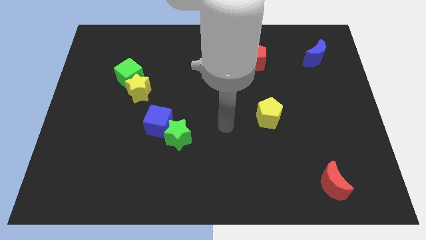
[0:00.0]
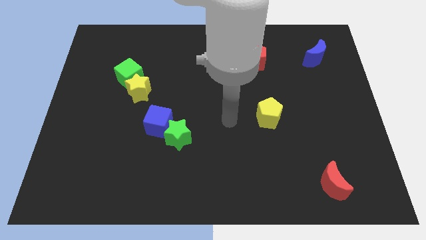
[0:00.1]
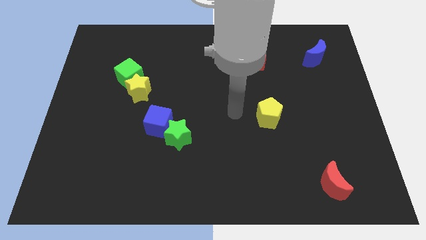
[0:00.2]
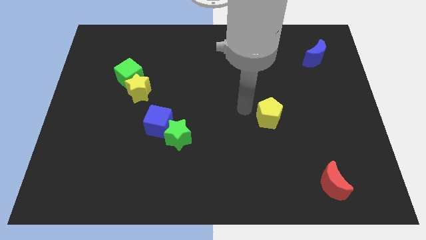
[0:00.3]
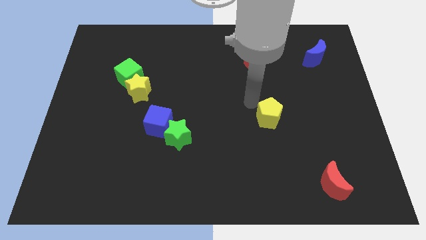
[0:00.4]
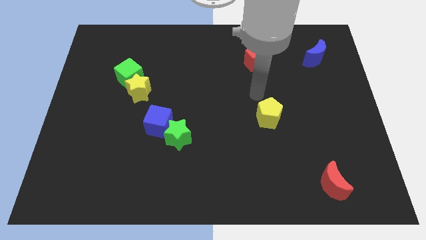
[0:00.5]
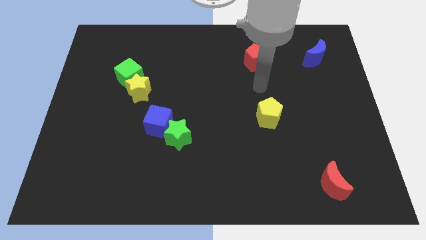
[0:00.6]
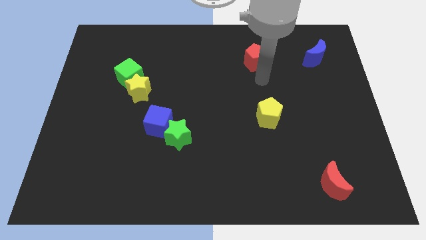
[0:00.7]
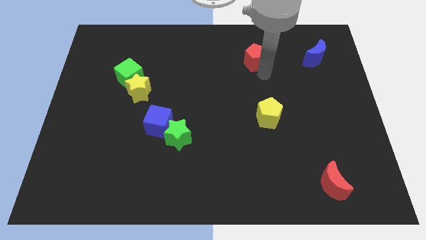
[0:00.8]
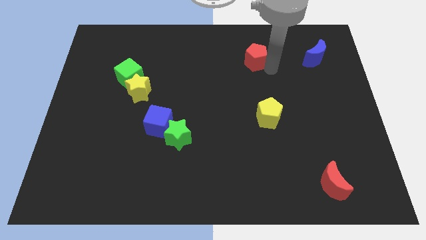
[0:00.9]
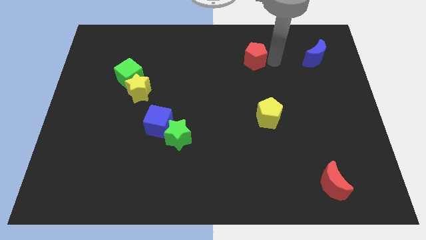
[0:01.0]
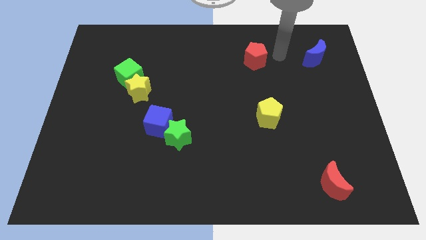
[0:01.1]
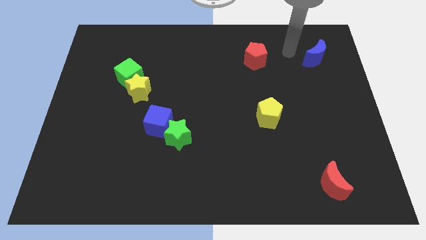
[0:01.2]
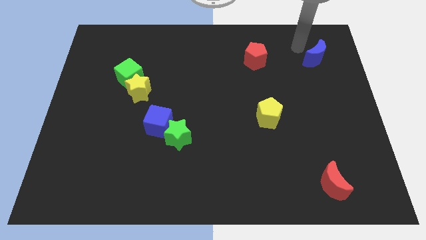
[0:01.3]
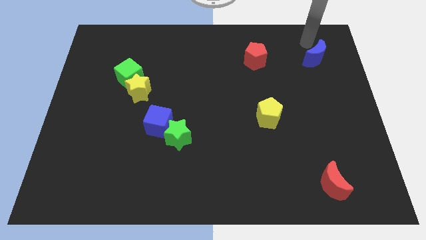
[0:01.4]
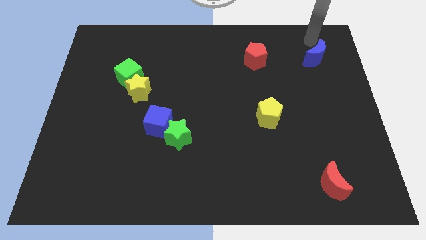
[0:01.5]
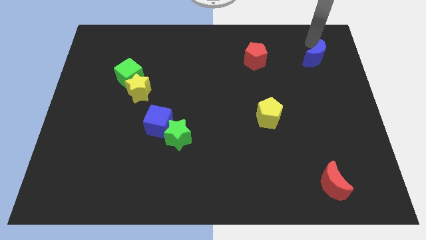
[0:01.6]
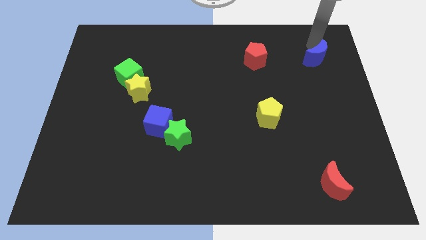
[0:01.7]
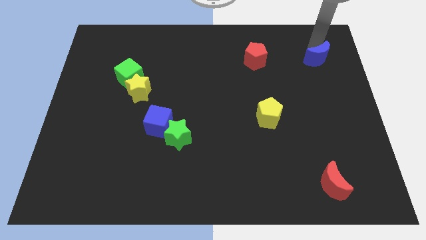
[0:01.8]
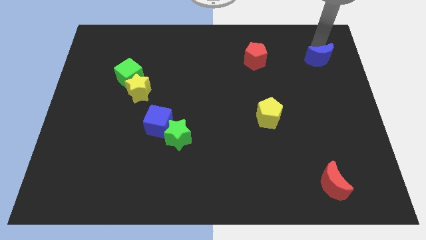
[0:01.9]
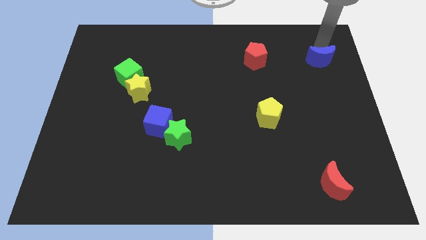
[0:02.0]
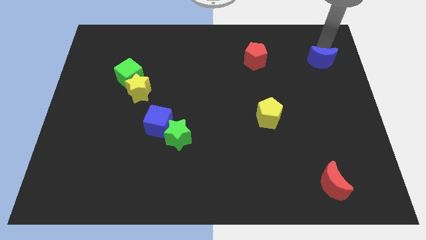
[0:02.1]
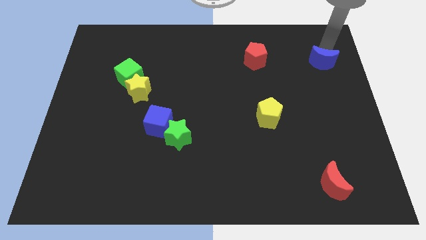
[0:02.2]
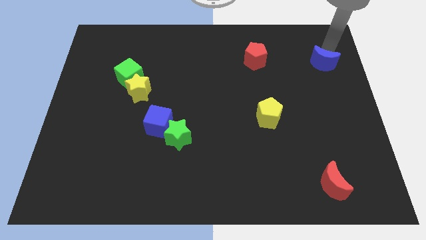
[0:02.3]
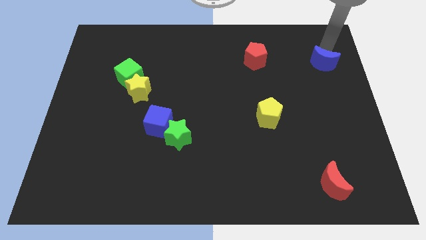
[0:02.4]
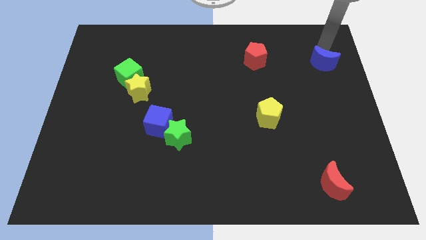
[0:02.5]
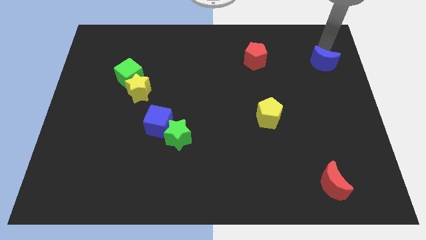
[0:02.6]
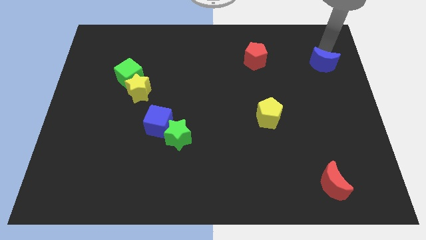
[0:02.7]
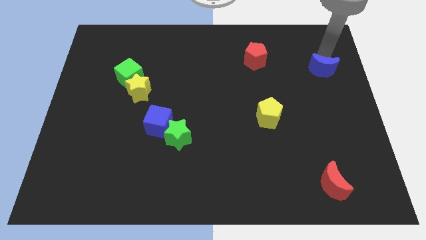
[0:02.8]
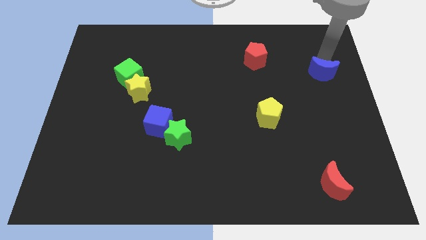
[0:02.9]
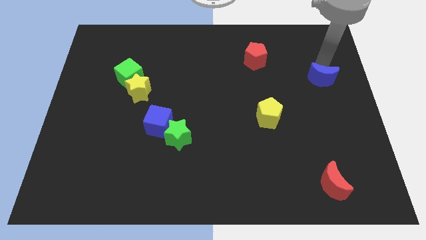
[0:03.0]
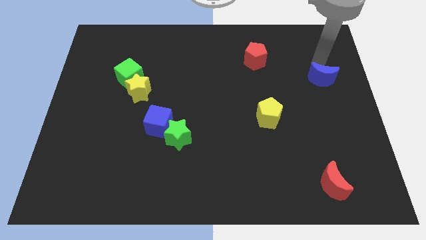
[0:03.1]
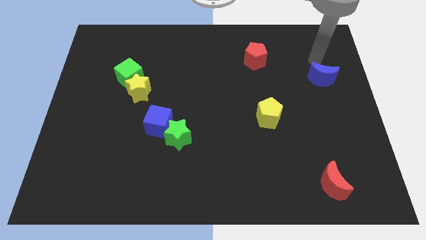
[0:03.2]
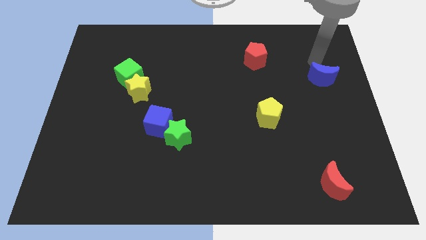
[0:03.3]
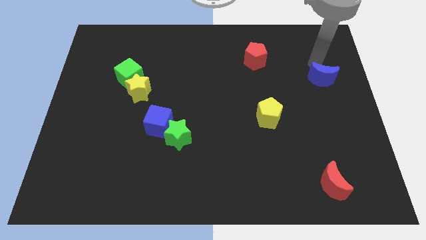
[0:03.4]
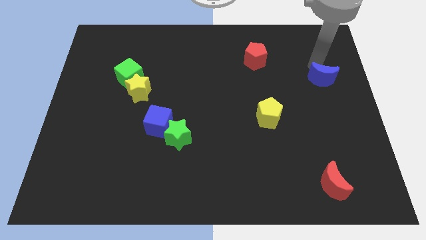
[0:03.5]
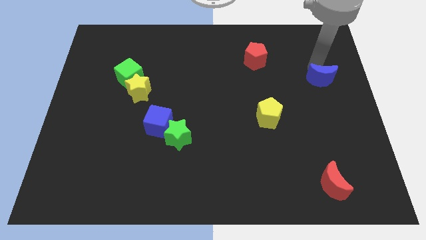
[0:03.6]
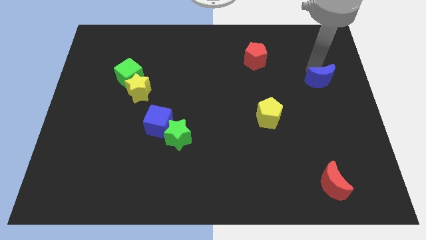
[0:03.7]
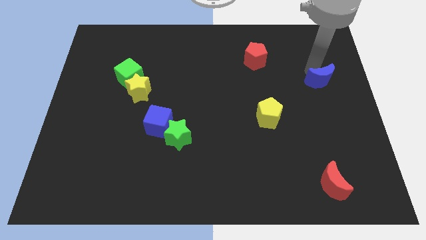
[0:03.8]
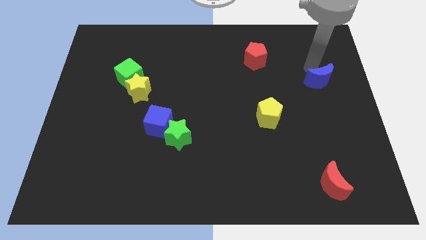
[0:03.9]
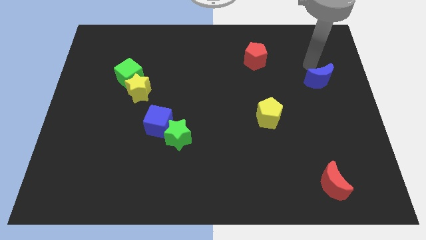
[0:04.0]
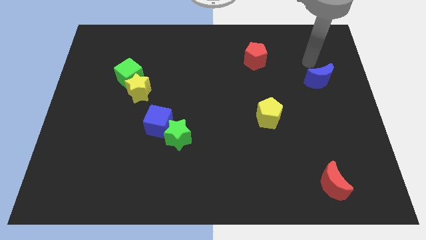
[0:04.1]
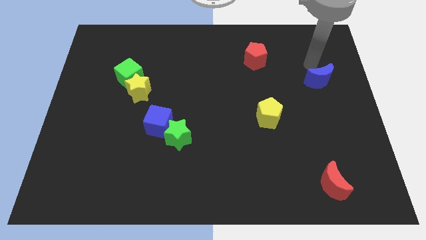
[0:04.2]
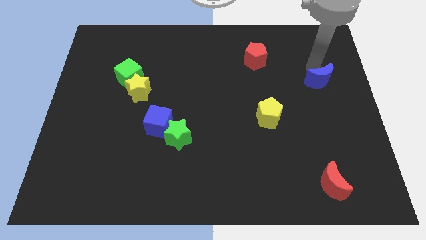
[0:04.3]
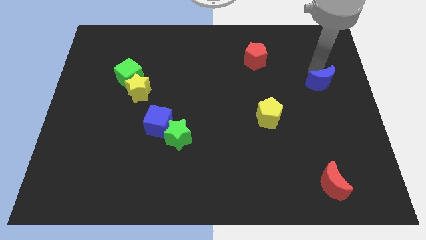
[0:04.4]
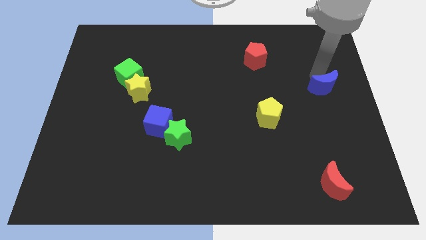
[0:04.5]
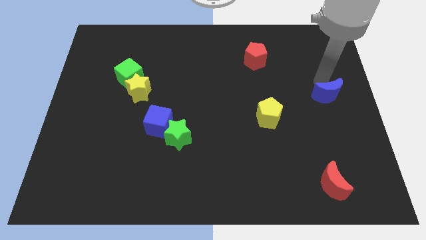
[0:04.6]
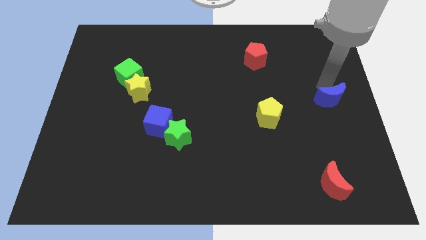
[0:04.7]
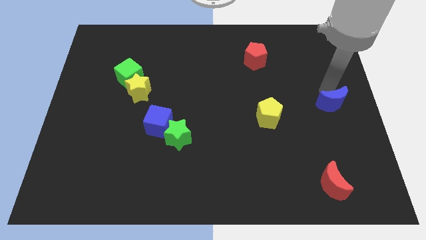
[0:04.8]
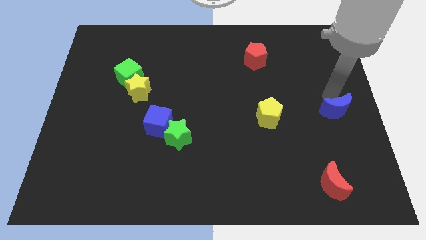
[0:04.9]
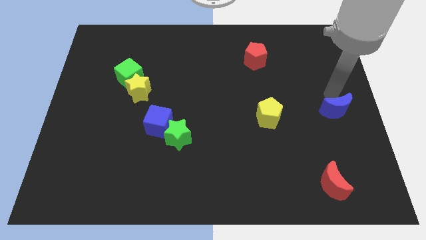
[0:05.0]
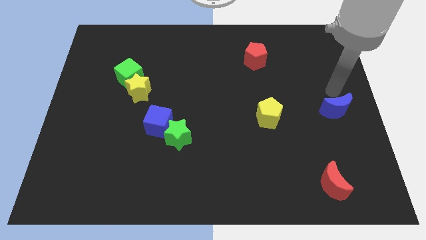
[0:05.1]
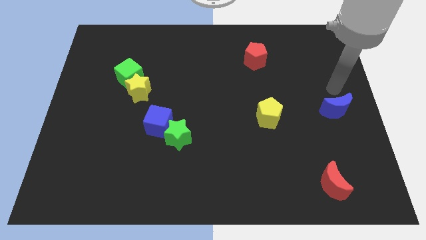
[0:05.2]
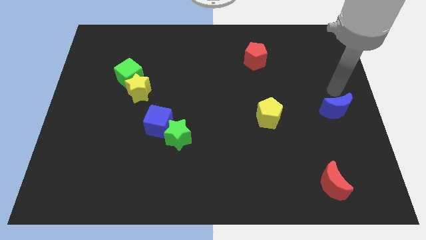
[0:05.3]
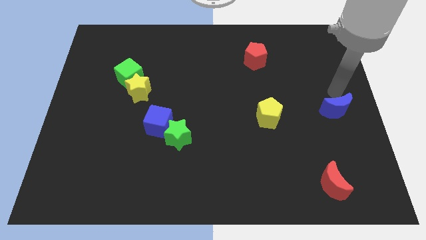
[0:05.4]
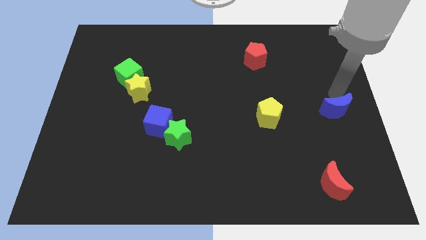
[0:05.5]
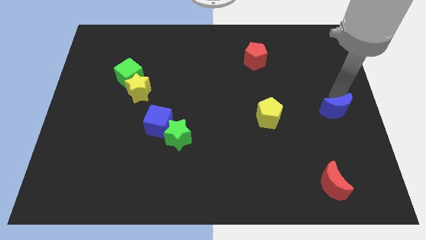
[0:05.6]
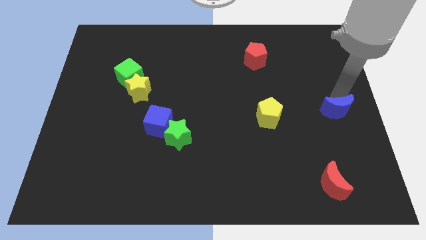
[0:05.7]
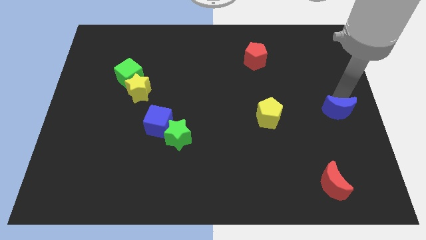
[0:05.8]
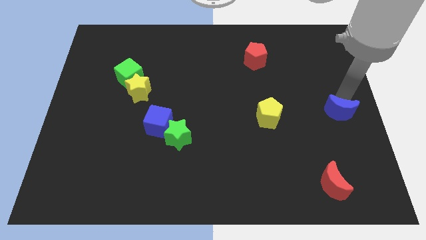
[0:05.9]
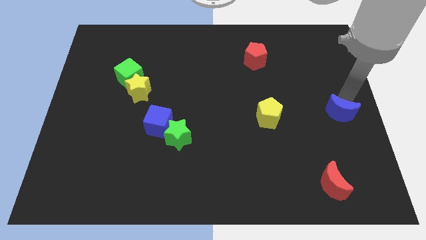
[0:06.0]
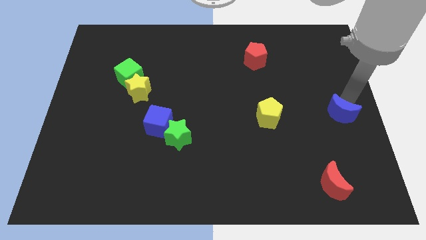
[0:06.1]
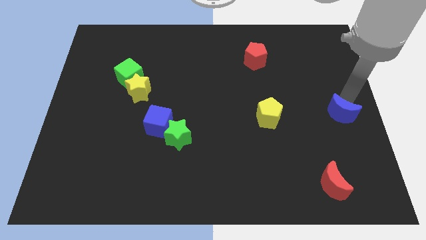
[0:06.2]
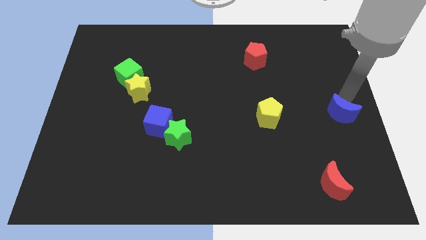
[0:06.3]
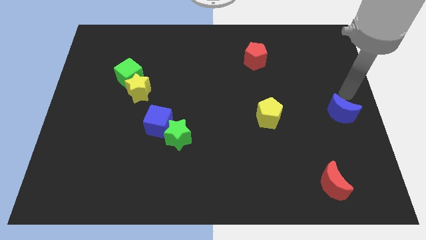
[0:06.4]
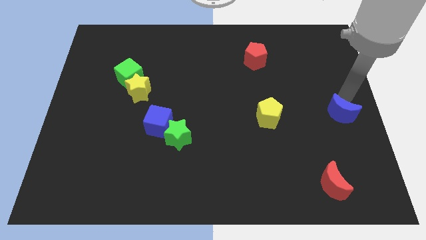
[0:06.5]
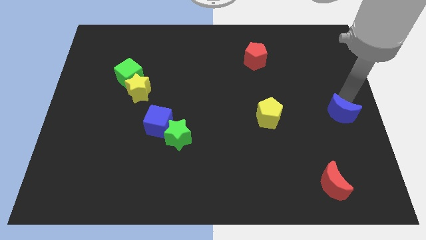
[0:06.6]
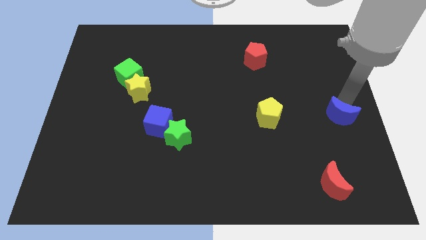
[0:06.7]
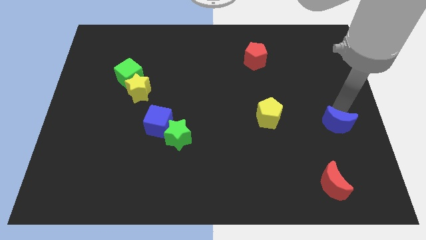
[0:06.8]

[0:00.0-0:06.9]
push the blue moon down

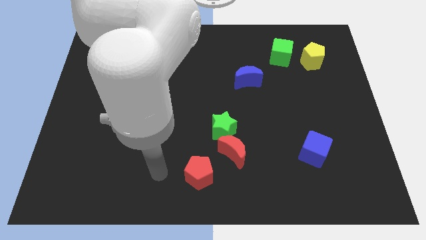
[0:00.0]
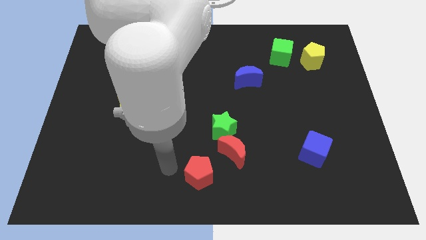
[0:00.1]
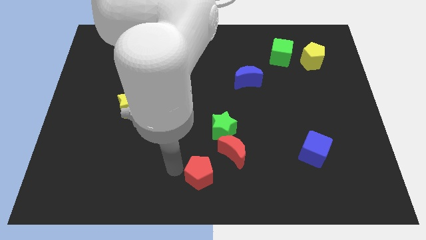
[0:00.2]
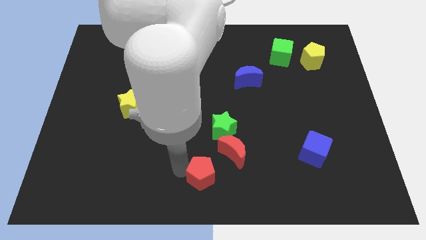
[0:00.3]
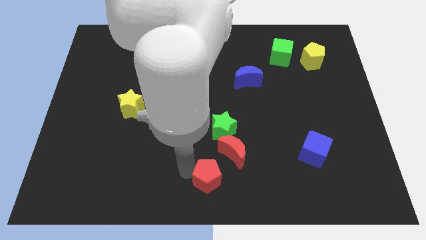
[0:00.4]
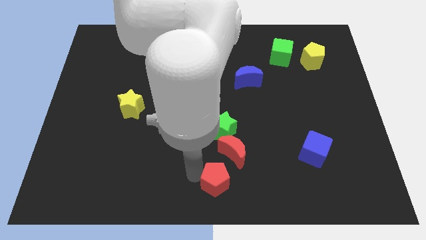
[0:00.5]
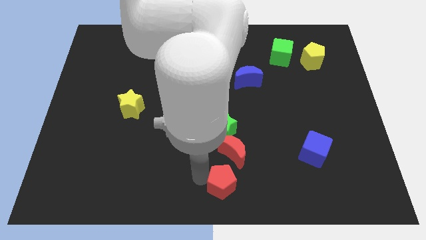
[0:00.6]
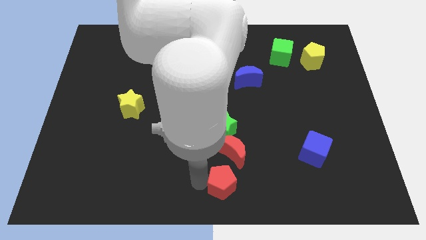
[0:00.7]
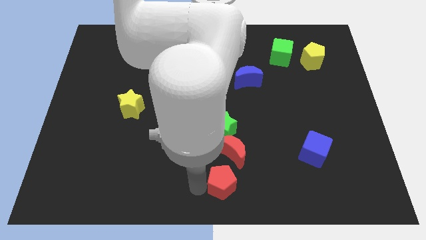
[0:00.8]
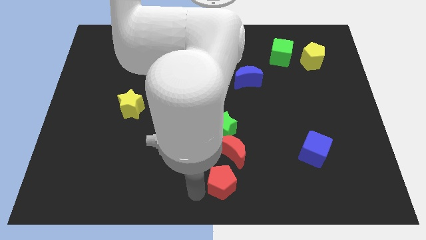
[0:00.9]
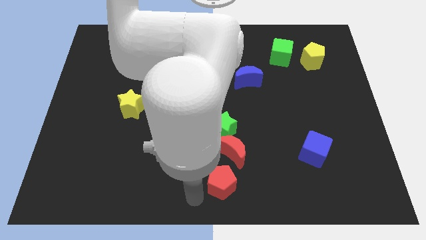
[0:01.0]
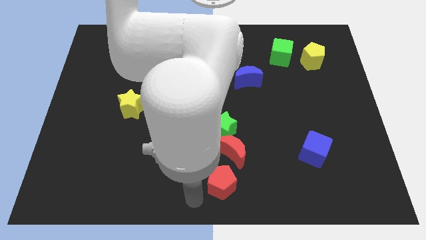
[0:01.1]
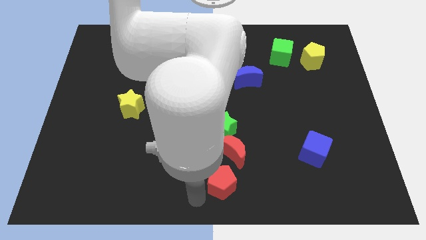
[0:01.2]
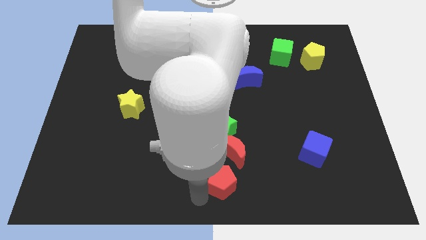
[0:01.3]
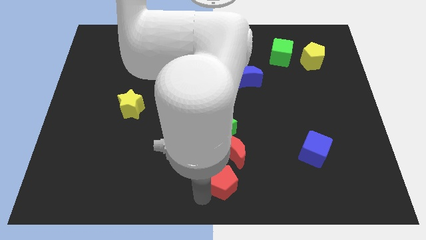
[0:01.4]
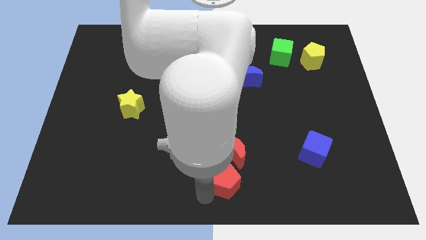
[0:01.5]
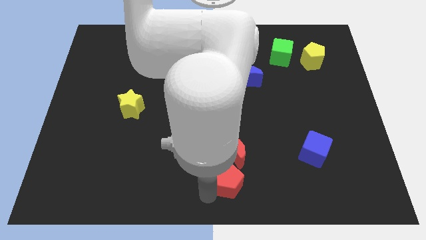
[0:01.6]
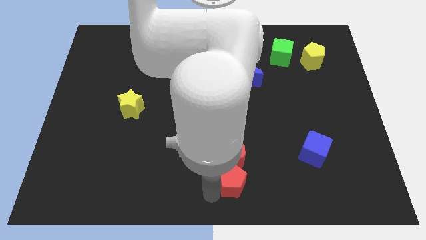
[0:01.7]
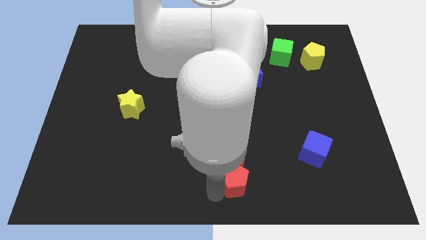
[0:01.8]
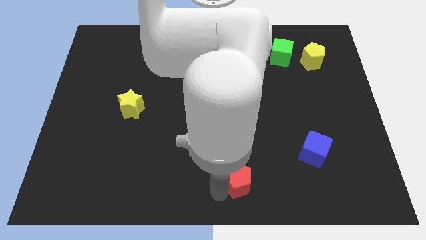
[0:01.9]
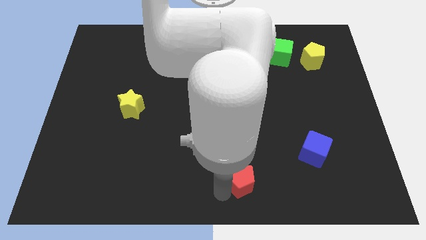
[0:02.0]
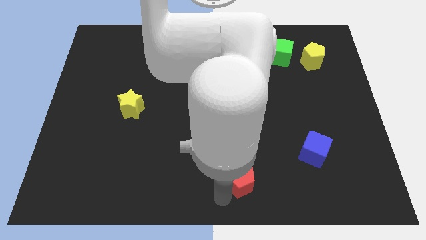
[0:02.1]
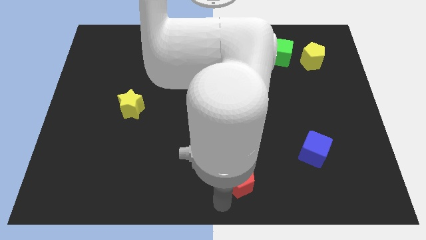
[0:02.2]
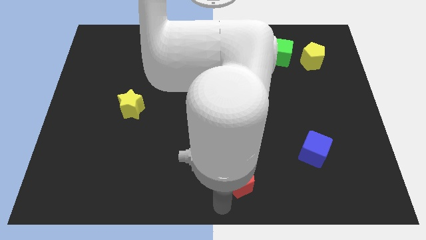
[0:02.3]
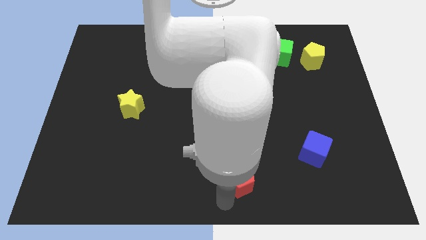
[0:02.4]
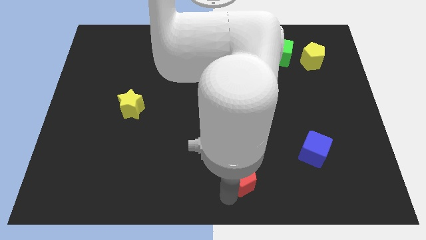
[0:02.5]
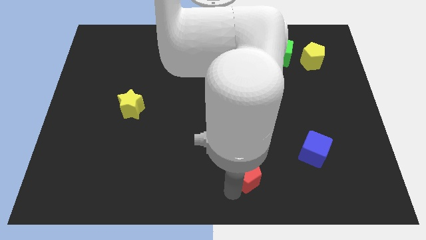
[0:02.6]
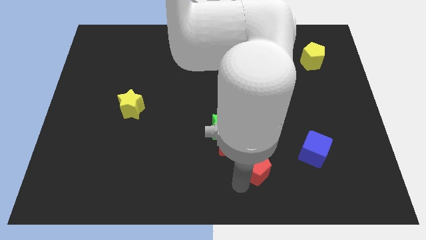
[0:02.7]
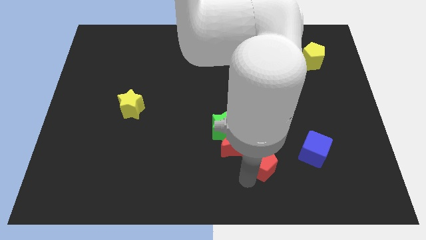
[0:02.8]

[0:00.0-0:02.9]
slightly slide the red pentagon upwards and to the right
